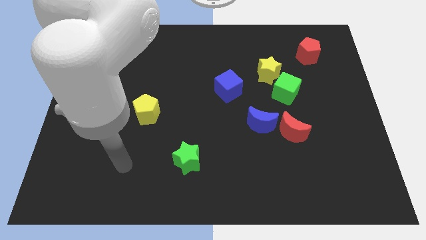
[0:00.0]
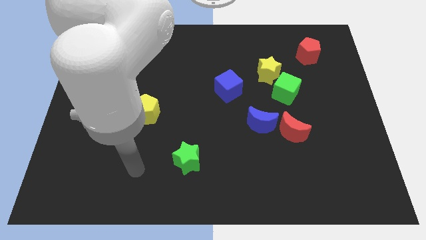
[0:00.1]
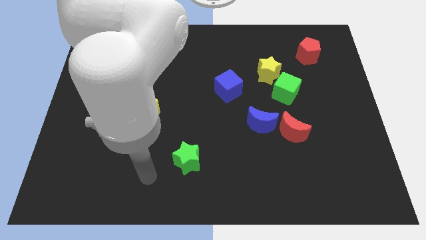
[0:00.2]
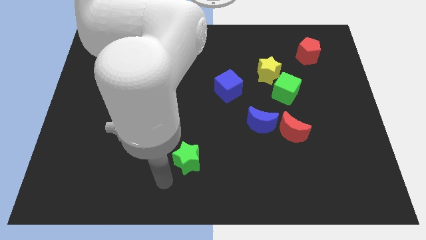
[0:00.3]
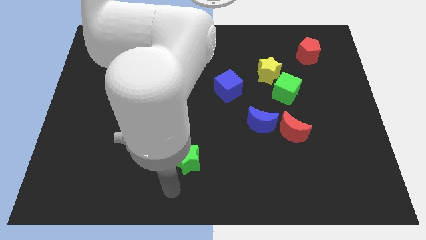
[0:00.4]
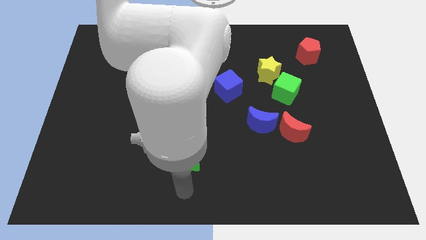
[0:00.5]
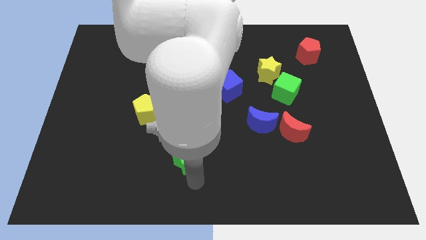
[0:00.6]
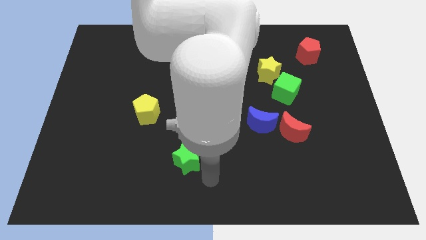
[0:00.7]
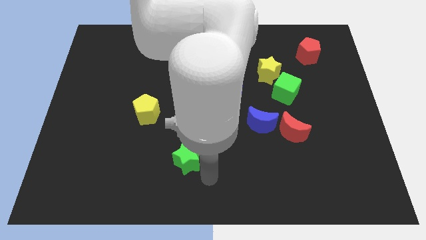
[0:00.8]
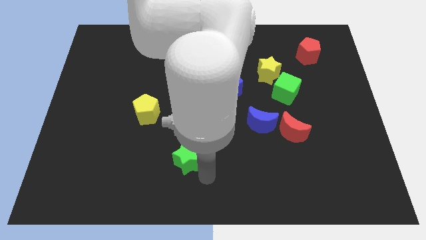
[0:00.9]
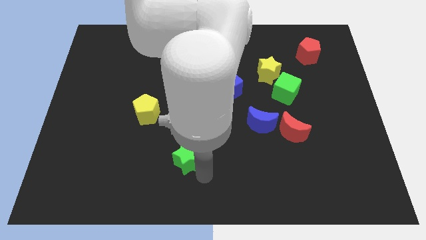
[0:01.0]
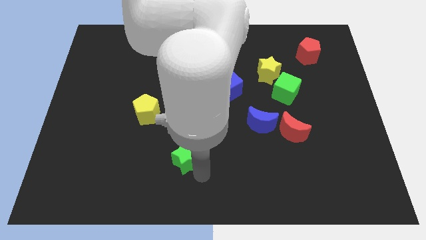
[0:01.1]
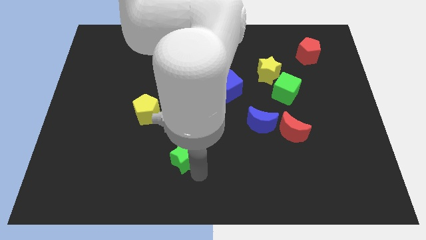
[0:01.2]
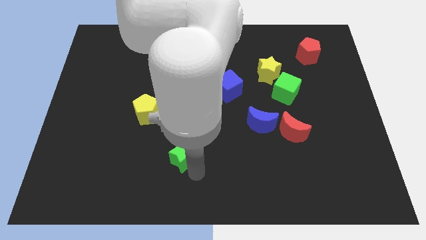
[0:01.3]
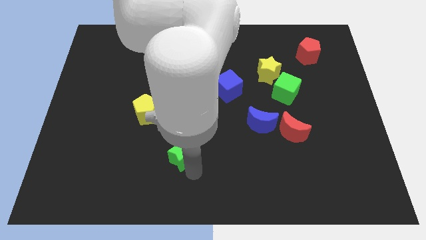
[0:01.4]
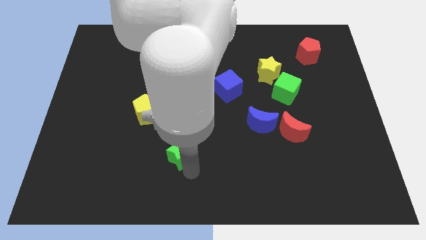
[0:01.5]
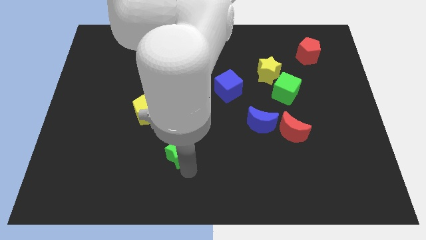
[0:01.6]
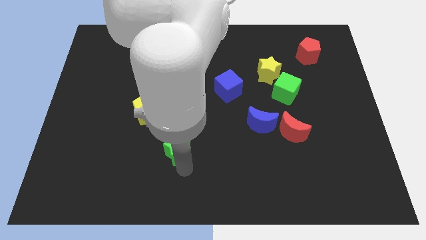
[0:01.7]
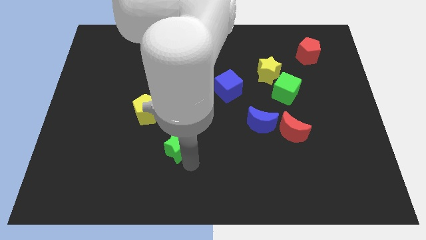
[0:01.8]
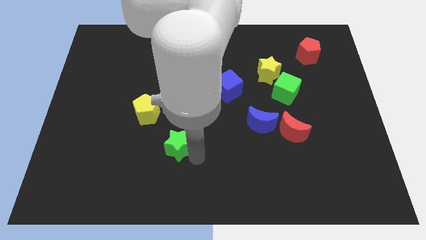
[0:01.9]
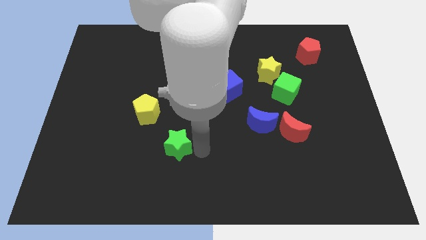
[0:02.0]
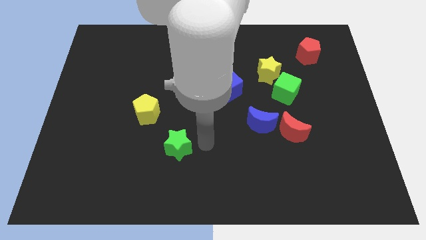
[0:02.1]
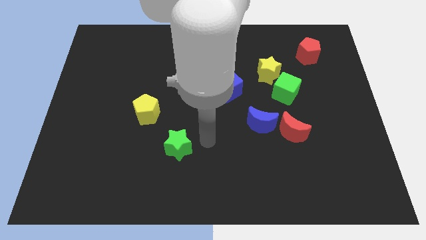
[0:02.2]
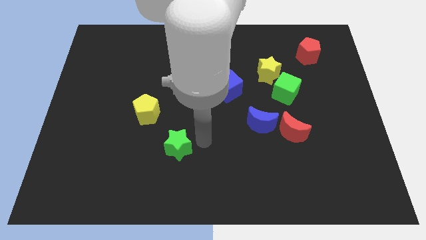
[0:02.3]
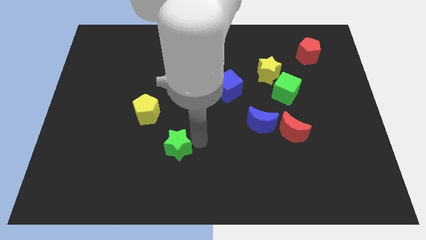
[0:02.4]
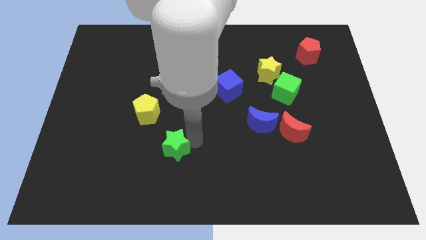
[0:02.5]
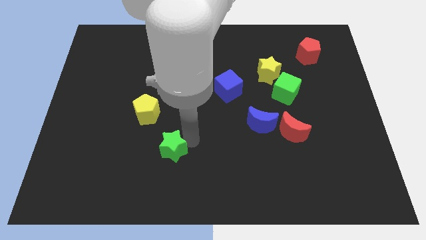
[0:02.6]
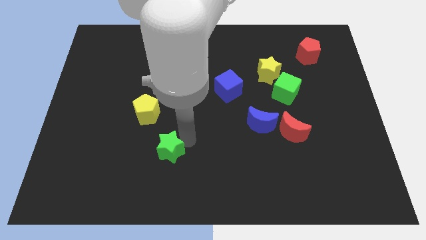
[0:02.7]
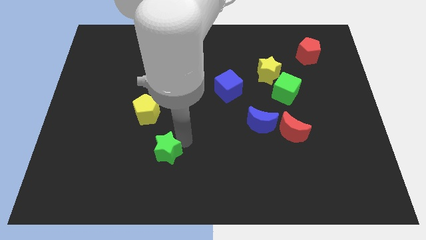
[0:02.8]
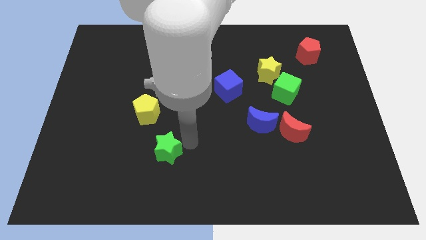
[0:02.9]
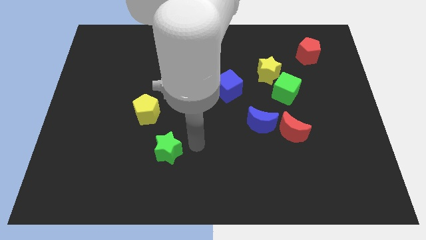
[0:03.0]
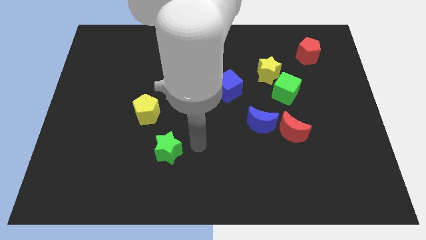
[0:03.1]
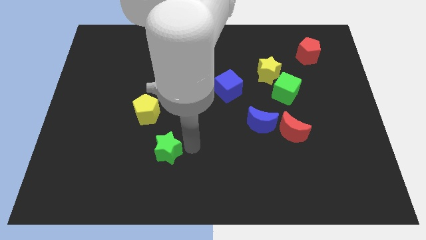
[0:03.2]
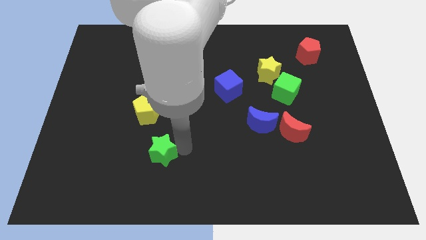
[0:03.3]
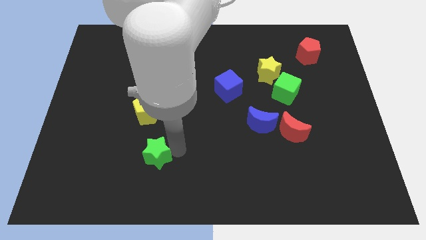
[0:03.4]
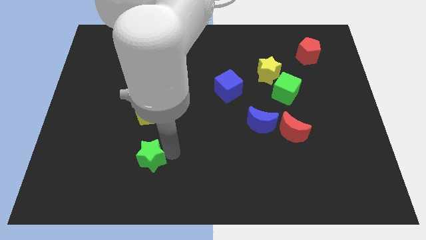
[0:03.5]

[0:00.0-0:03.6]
slightly move the green star left

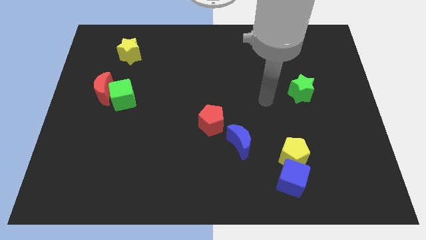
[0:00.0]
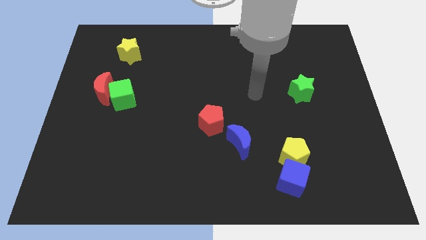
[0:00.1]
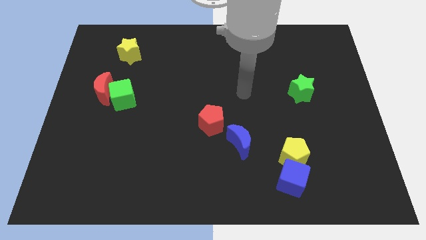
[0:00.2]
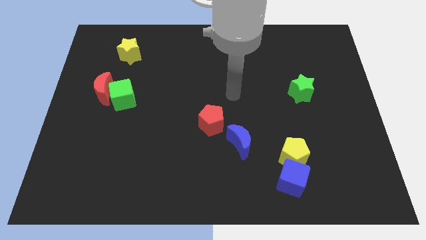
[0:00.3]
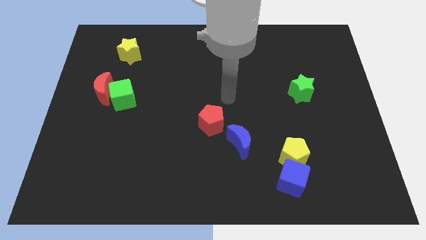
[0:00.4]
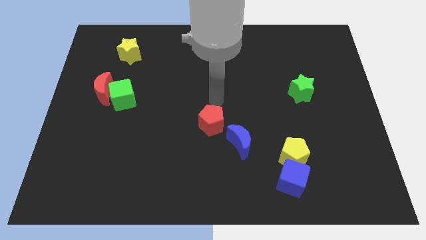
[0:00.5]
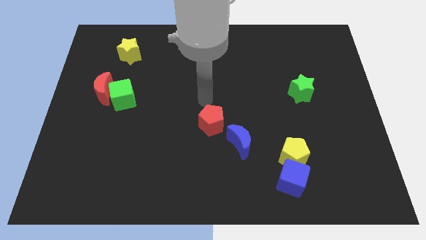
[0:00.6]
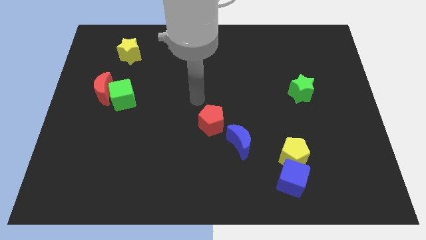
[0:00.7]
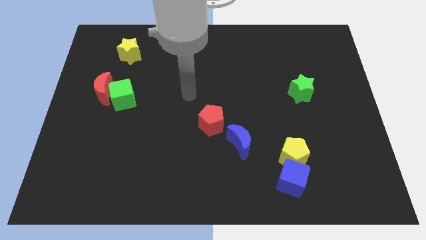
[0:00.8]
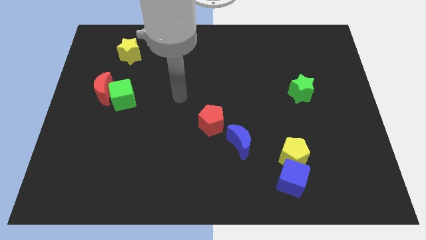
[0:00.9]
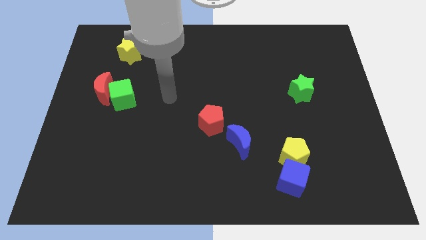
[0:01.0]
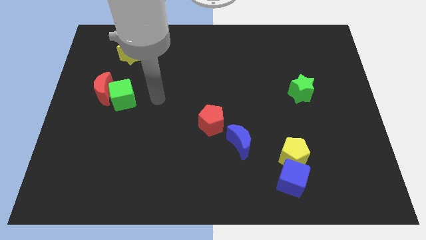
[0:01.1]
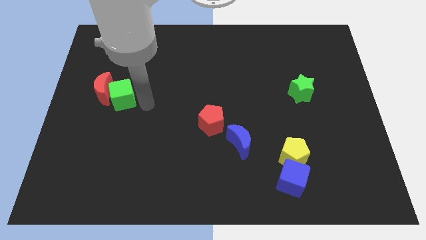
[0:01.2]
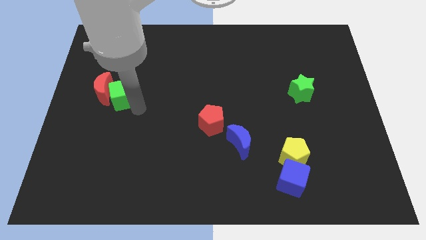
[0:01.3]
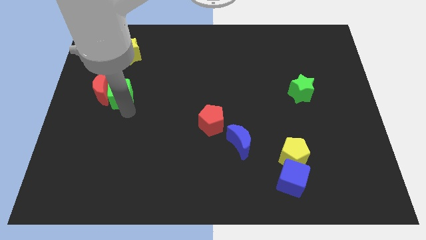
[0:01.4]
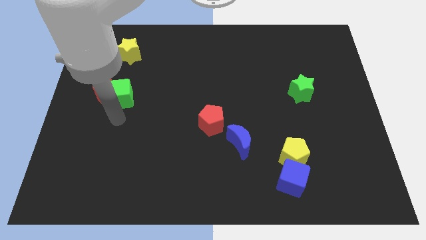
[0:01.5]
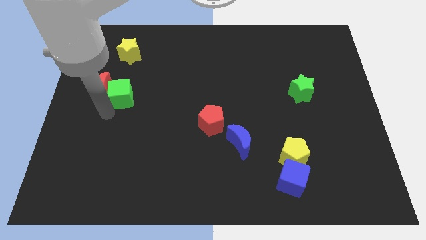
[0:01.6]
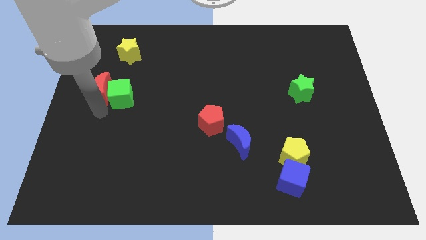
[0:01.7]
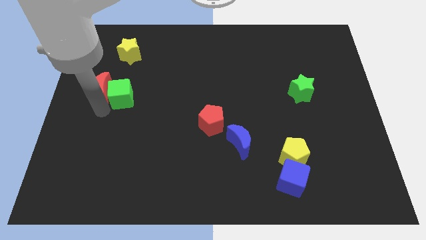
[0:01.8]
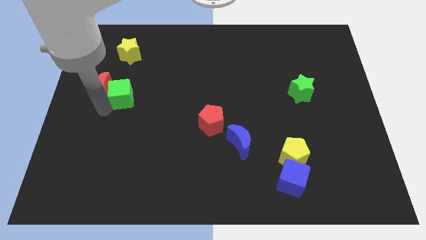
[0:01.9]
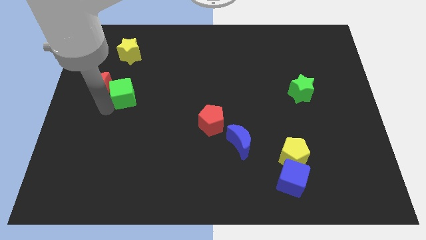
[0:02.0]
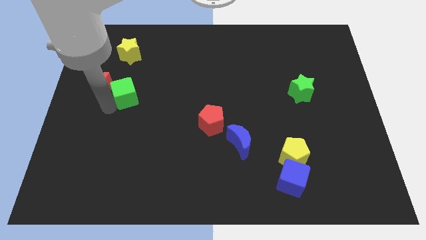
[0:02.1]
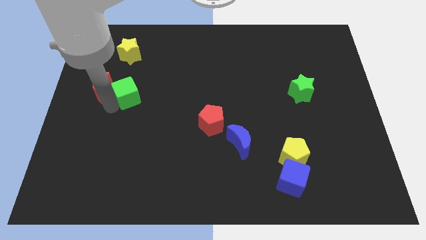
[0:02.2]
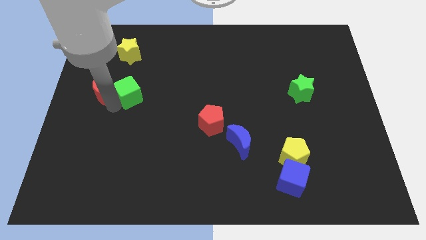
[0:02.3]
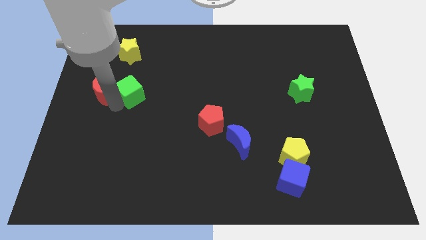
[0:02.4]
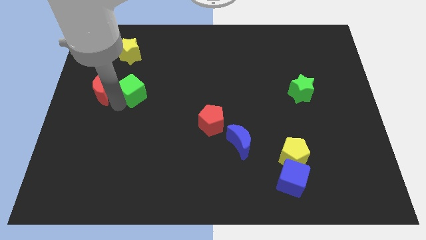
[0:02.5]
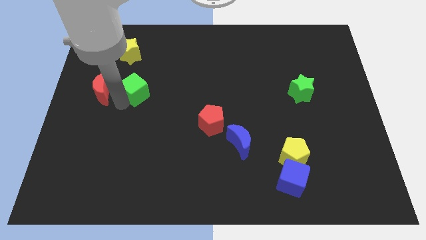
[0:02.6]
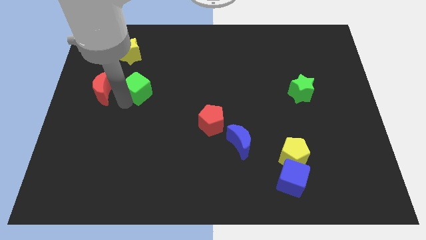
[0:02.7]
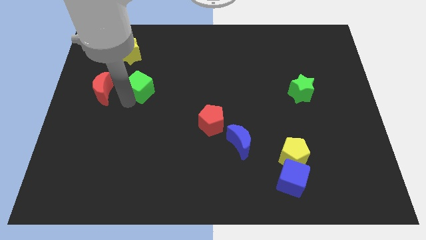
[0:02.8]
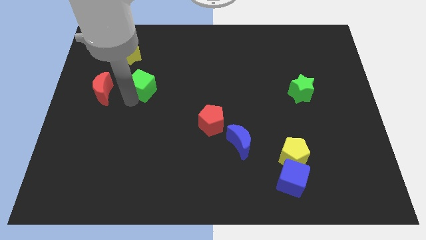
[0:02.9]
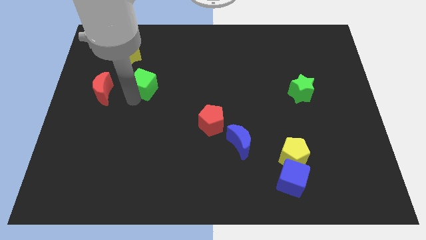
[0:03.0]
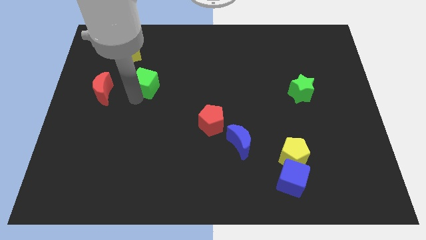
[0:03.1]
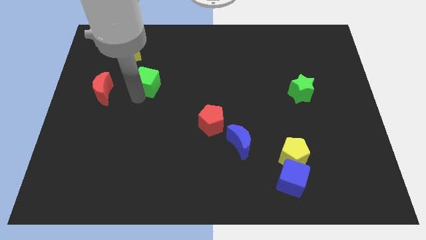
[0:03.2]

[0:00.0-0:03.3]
slightly slide the green cube diagonally upwards and right

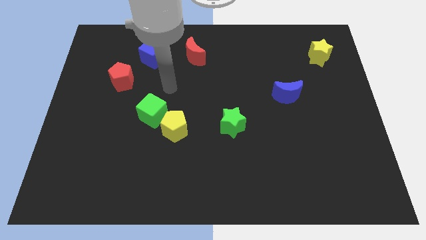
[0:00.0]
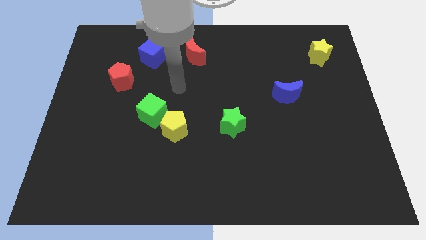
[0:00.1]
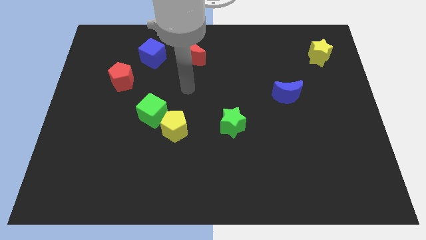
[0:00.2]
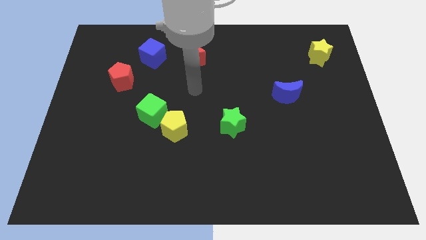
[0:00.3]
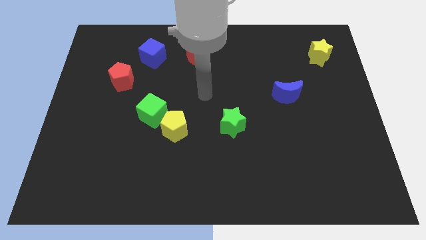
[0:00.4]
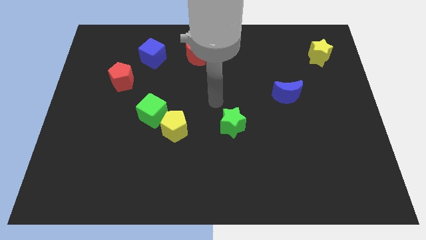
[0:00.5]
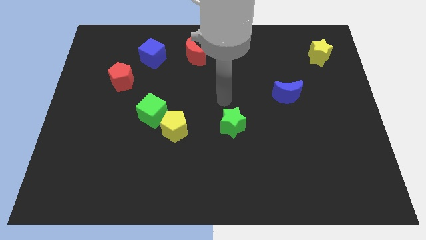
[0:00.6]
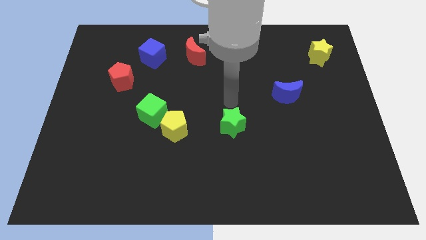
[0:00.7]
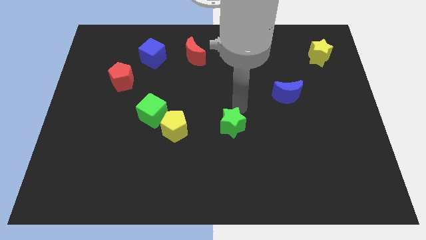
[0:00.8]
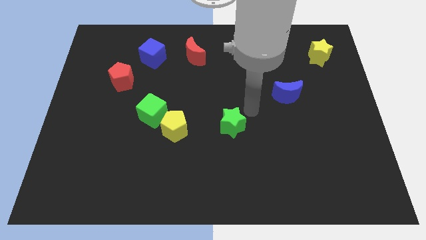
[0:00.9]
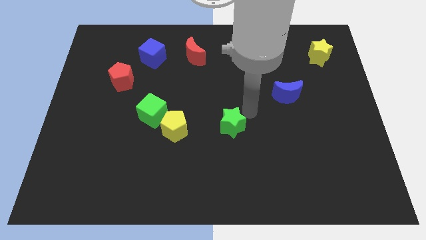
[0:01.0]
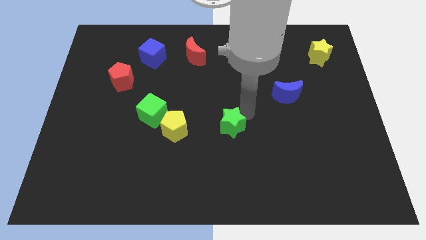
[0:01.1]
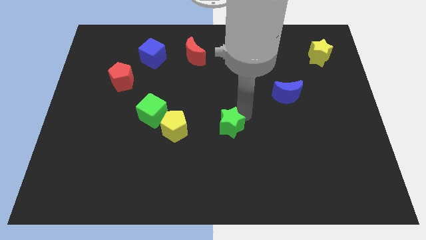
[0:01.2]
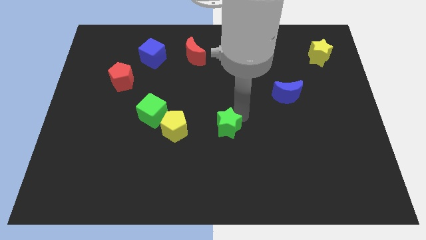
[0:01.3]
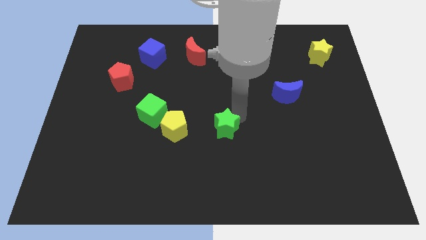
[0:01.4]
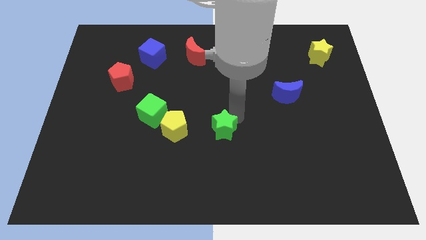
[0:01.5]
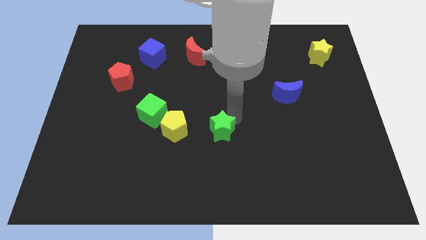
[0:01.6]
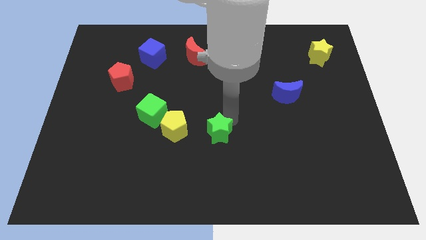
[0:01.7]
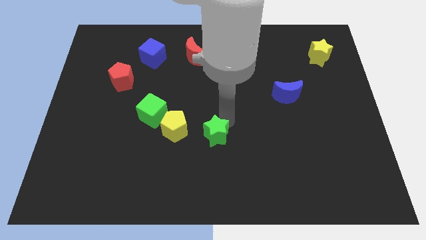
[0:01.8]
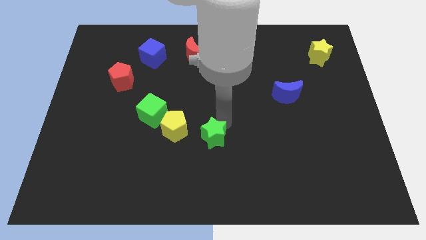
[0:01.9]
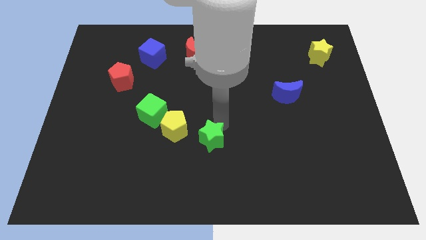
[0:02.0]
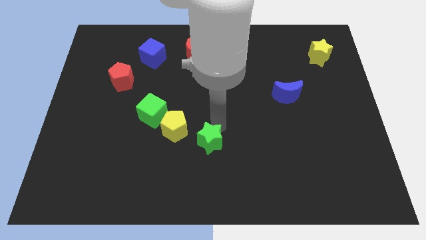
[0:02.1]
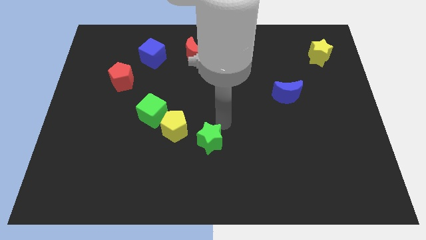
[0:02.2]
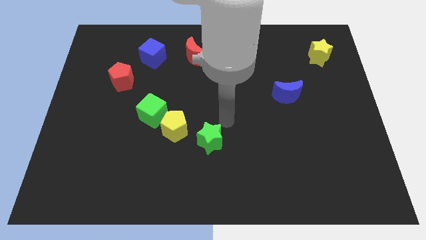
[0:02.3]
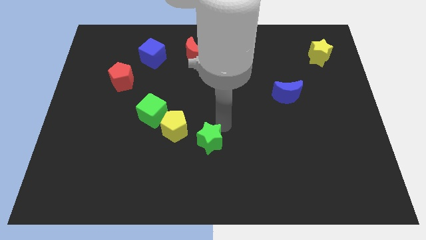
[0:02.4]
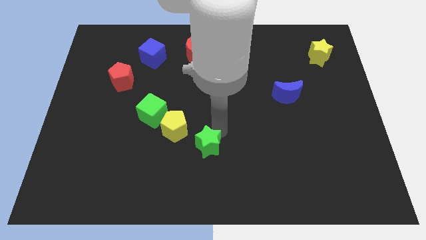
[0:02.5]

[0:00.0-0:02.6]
slide the green star slightly down and then to the left
